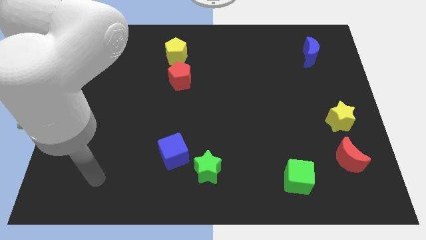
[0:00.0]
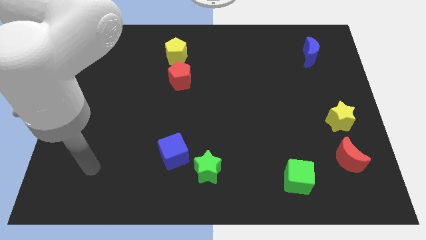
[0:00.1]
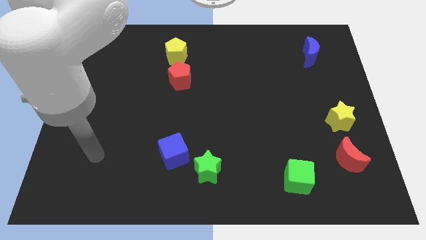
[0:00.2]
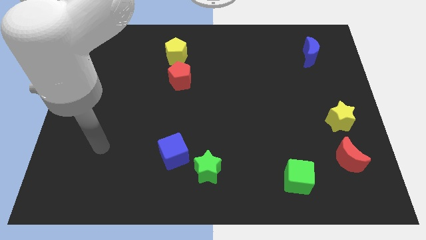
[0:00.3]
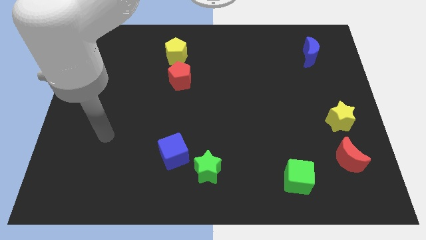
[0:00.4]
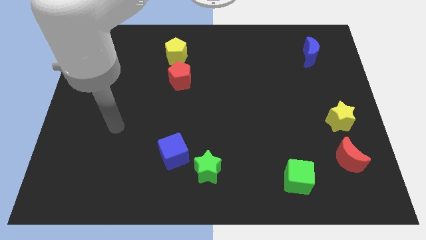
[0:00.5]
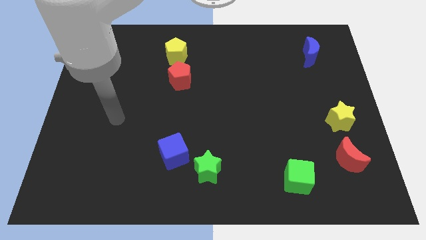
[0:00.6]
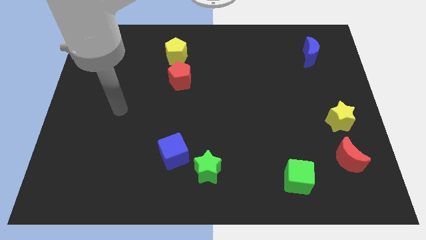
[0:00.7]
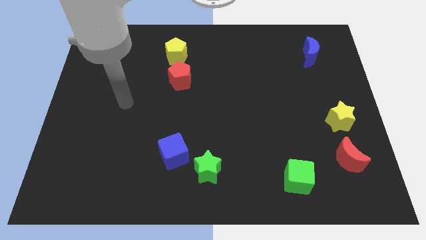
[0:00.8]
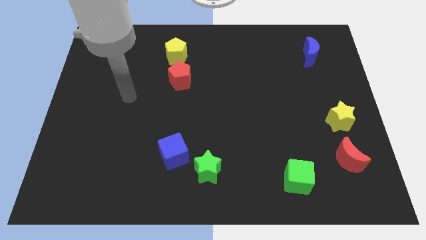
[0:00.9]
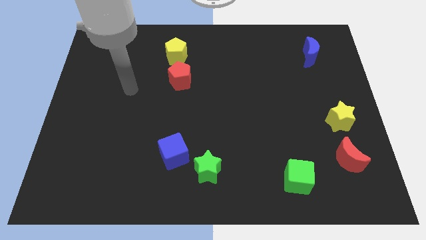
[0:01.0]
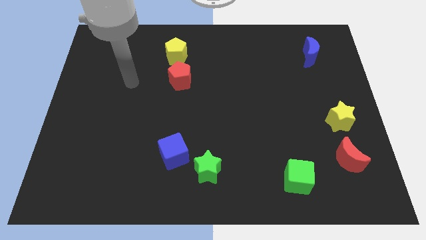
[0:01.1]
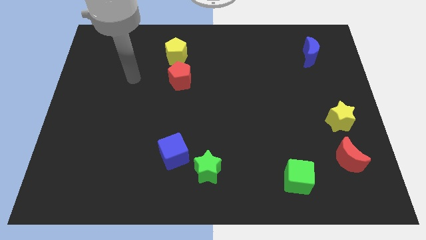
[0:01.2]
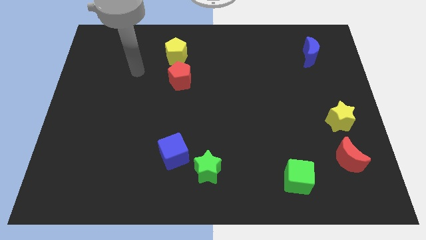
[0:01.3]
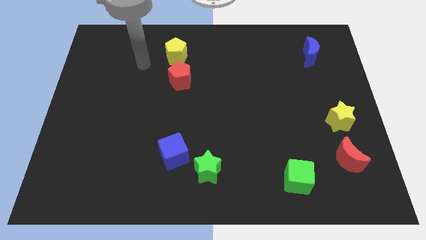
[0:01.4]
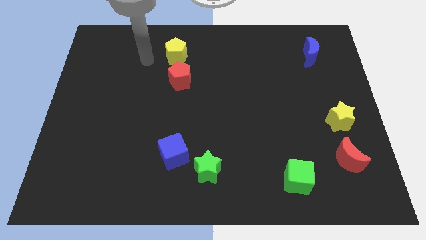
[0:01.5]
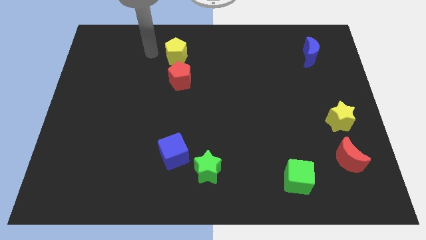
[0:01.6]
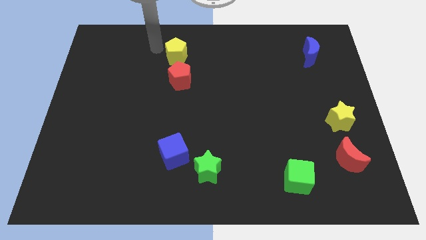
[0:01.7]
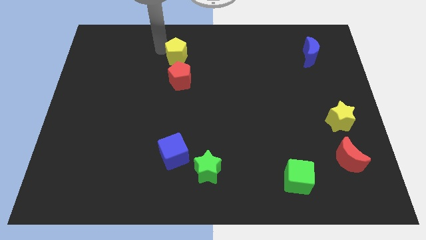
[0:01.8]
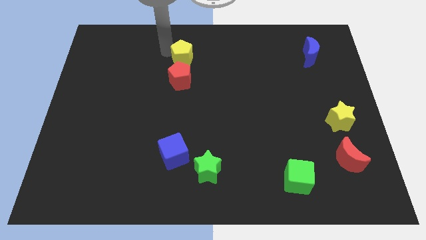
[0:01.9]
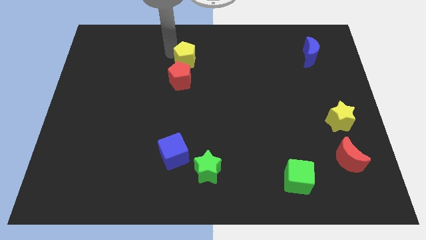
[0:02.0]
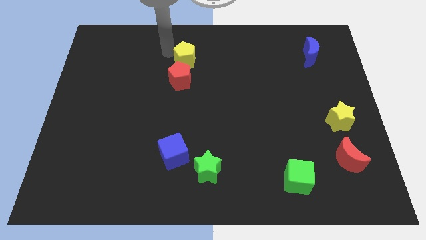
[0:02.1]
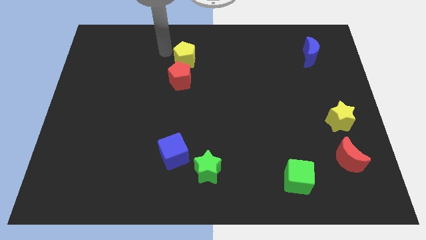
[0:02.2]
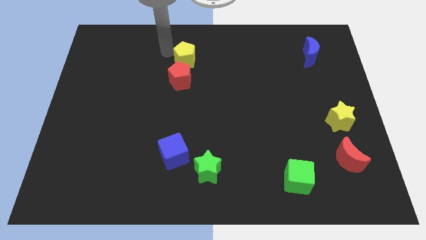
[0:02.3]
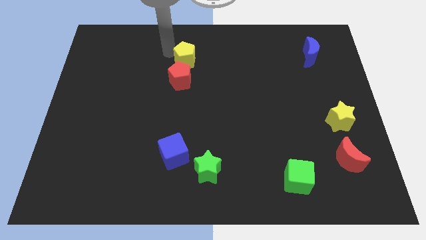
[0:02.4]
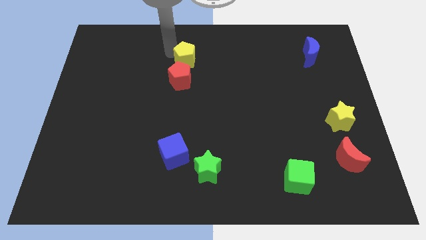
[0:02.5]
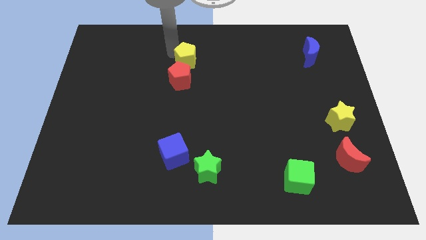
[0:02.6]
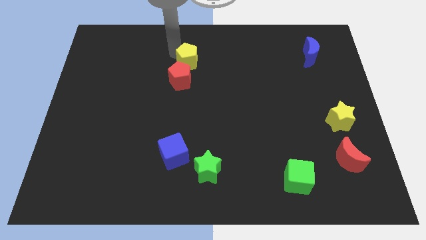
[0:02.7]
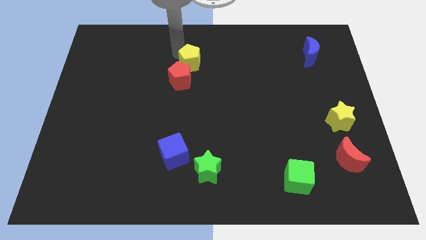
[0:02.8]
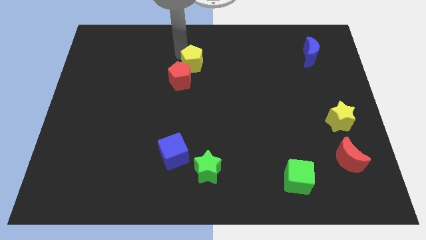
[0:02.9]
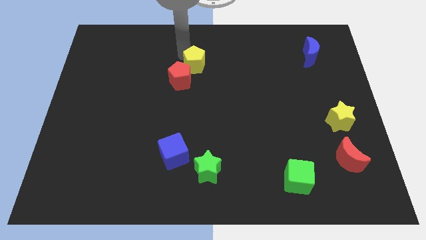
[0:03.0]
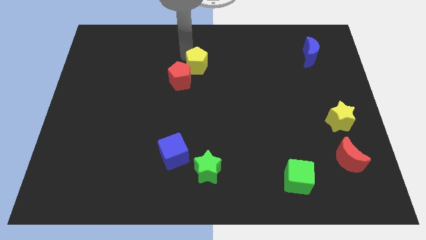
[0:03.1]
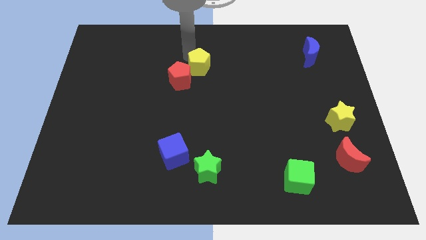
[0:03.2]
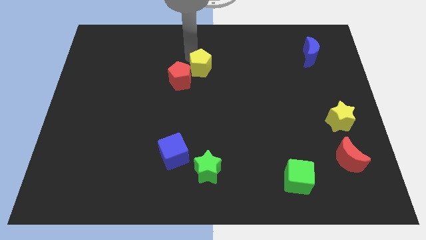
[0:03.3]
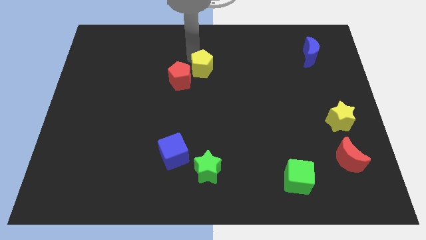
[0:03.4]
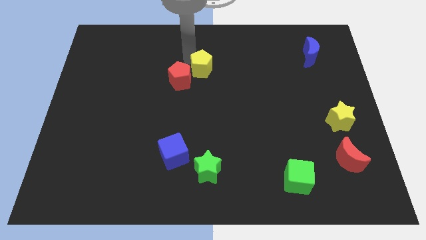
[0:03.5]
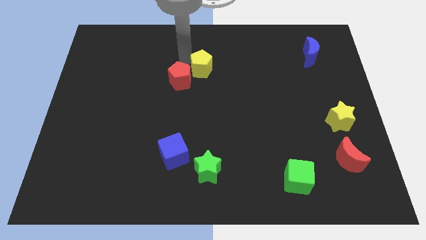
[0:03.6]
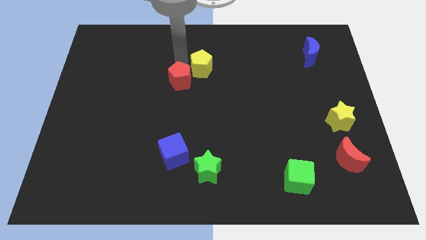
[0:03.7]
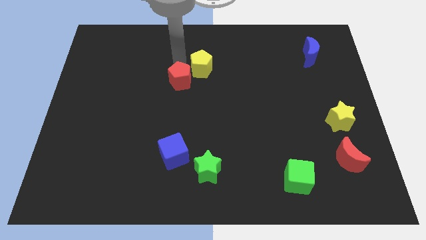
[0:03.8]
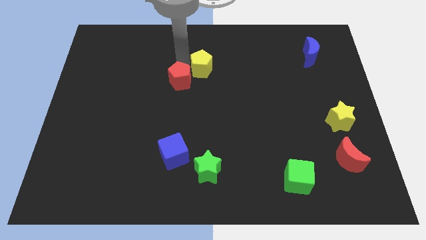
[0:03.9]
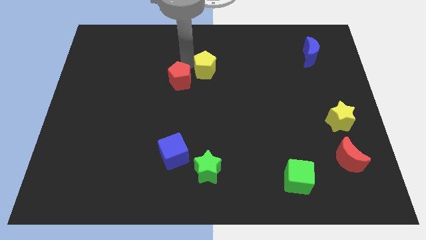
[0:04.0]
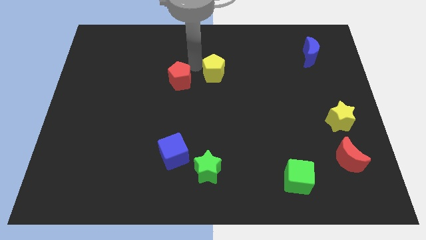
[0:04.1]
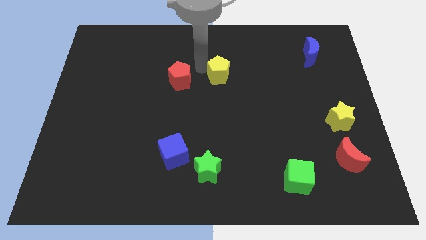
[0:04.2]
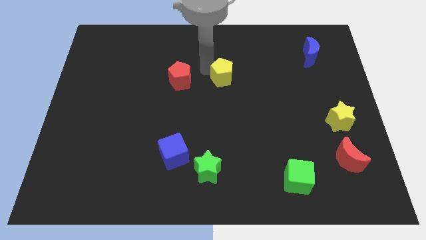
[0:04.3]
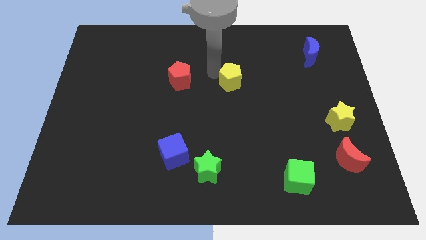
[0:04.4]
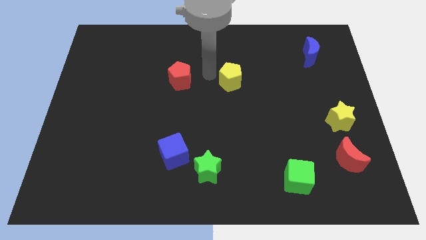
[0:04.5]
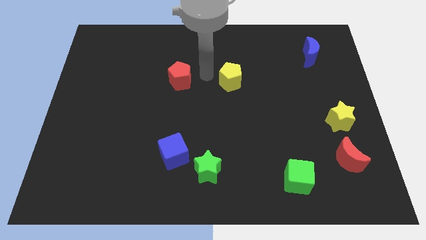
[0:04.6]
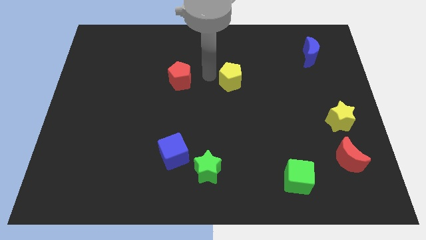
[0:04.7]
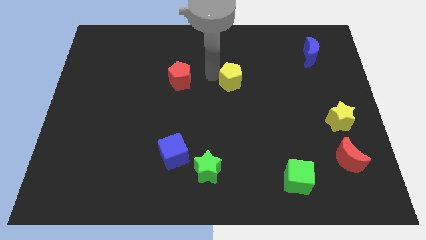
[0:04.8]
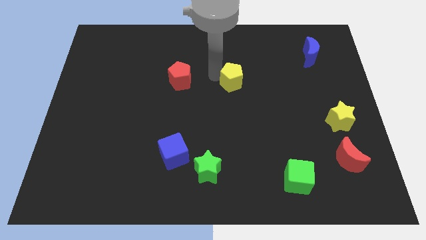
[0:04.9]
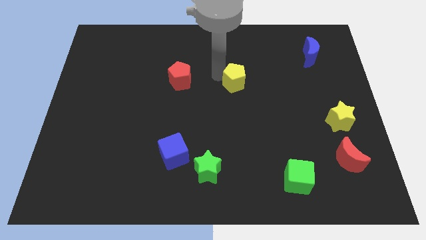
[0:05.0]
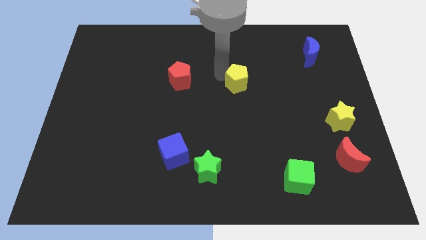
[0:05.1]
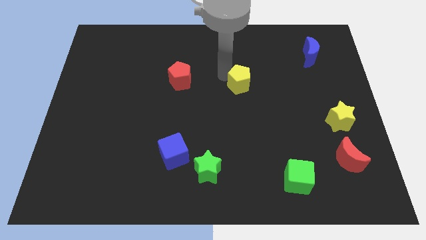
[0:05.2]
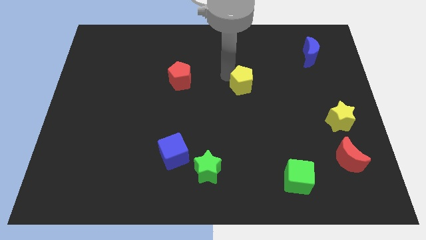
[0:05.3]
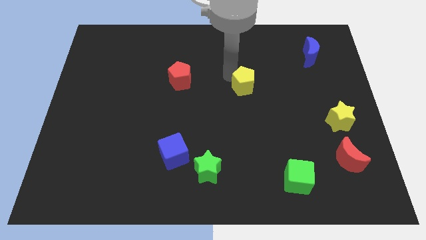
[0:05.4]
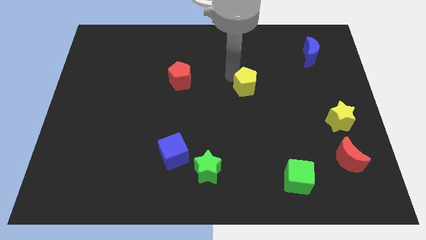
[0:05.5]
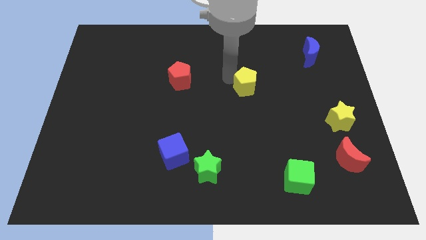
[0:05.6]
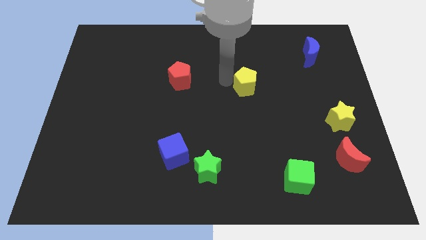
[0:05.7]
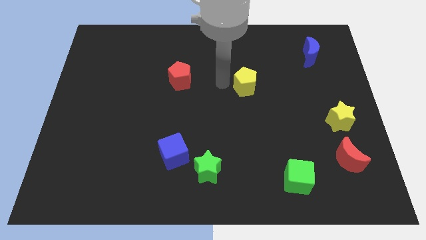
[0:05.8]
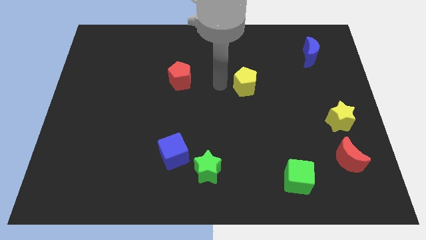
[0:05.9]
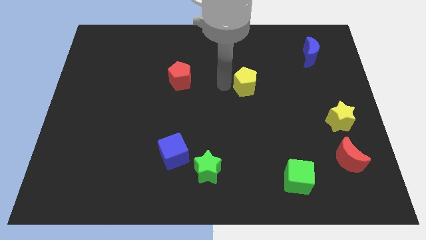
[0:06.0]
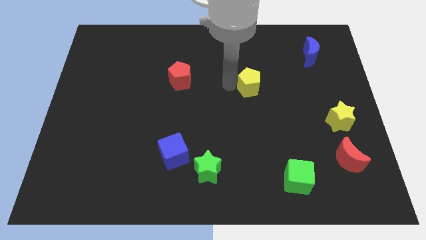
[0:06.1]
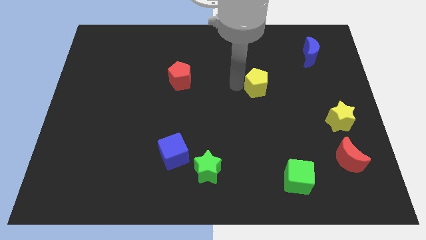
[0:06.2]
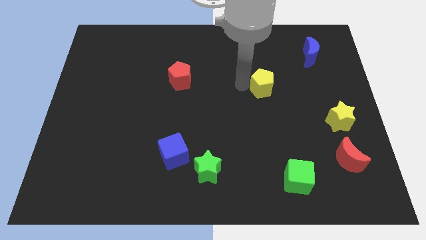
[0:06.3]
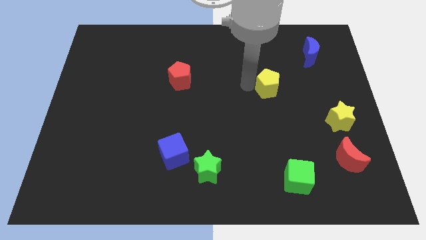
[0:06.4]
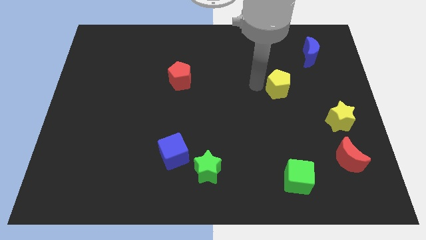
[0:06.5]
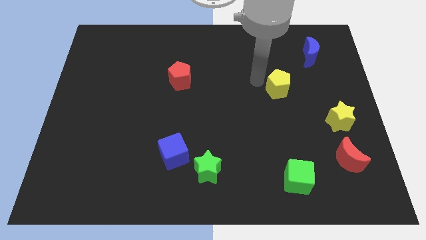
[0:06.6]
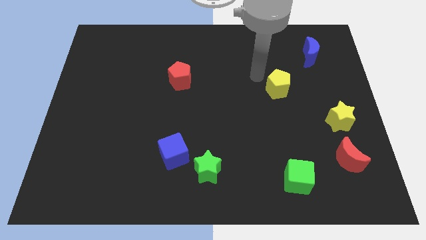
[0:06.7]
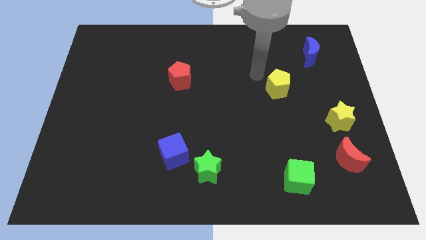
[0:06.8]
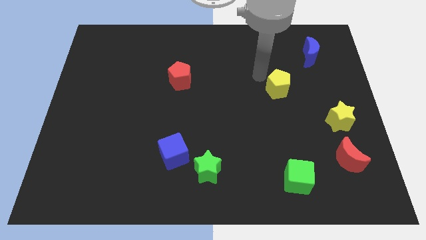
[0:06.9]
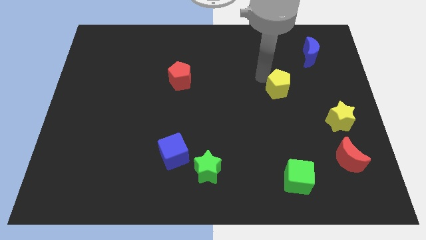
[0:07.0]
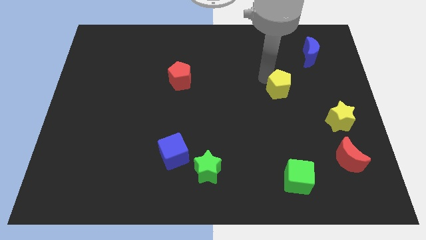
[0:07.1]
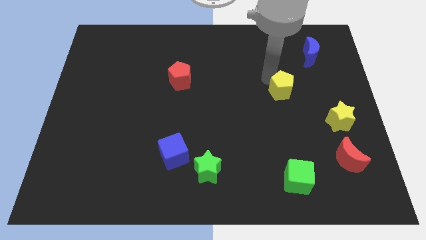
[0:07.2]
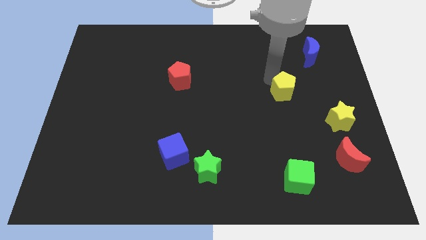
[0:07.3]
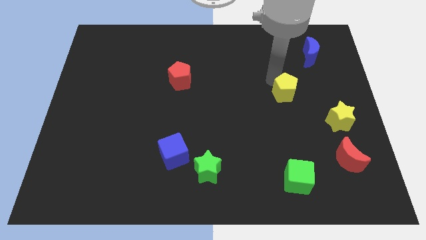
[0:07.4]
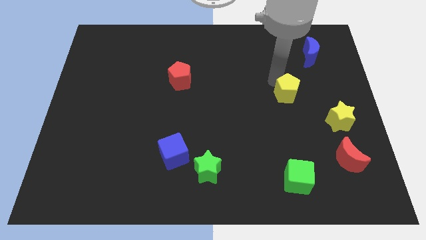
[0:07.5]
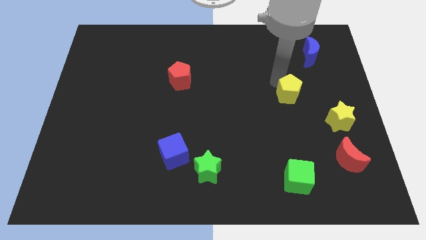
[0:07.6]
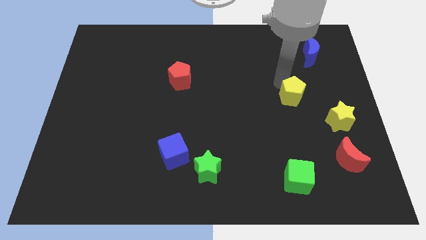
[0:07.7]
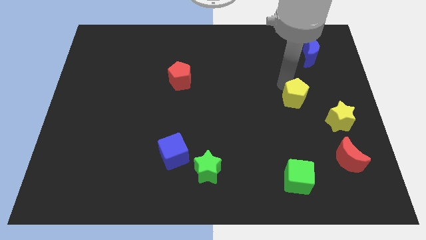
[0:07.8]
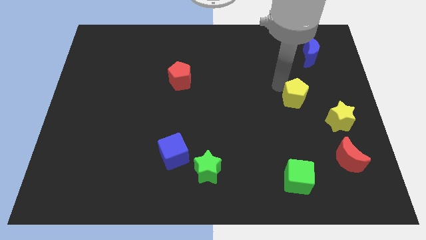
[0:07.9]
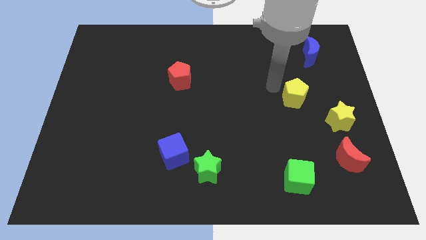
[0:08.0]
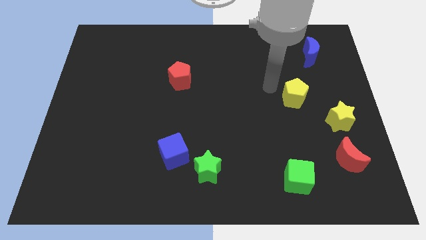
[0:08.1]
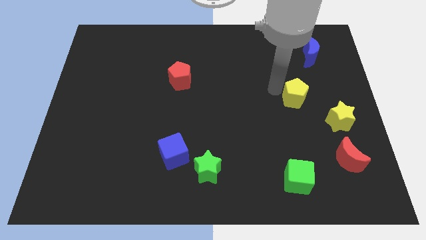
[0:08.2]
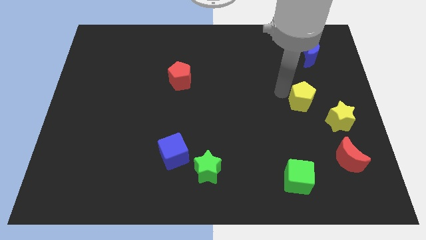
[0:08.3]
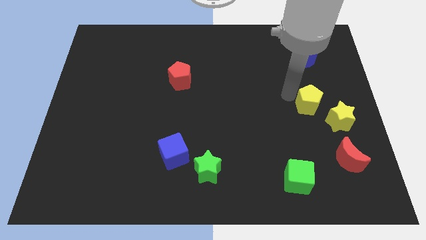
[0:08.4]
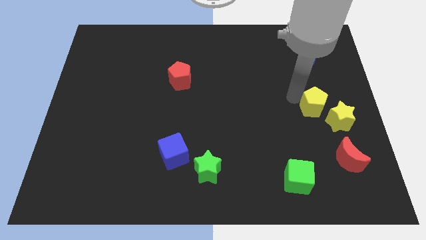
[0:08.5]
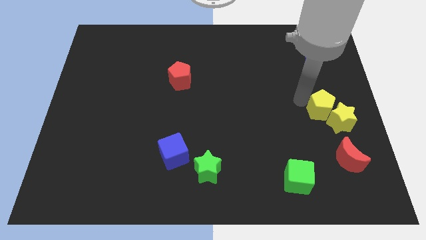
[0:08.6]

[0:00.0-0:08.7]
push the yellow pentagon towards the yellow star
